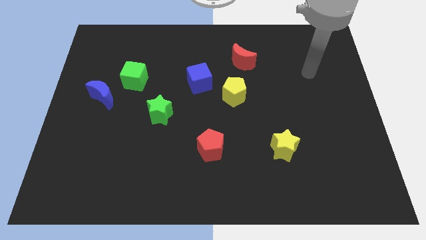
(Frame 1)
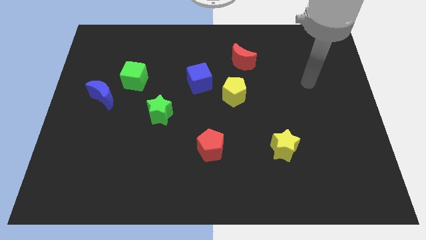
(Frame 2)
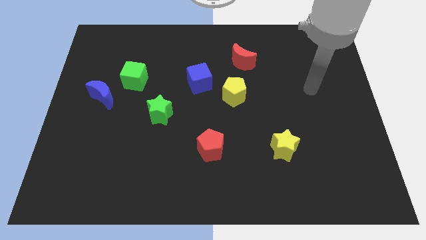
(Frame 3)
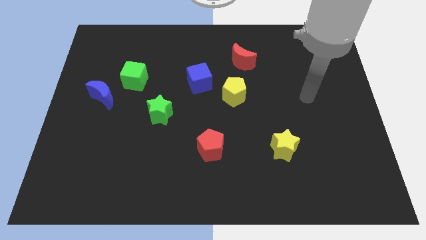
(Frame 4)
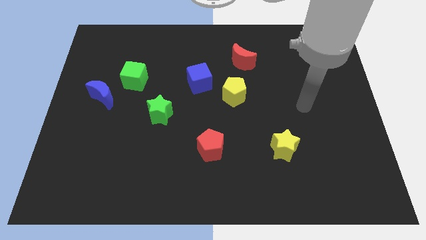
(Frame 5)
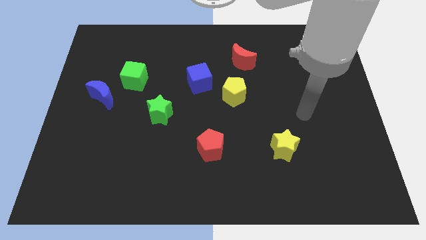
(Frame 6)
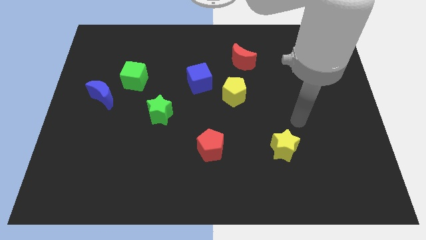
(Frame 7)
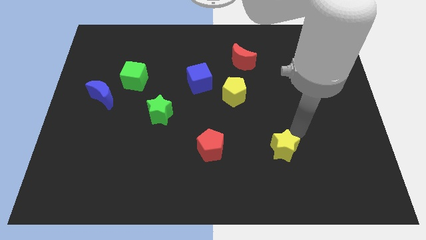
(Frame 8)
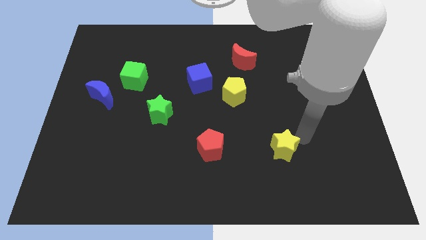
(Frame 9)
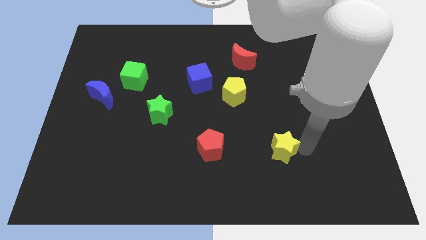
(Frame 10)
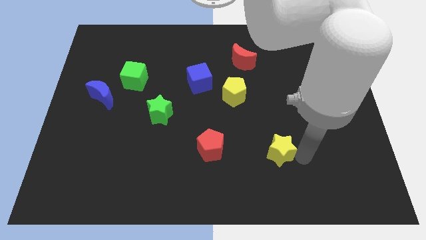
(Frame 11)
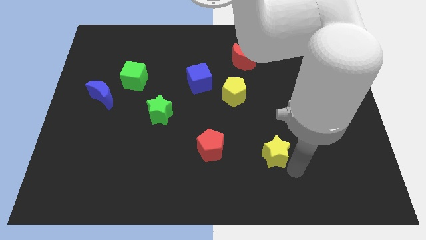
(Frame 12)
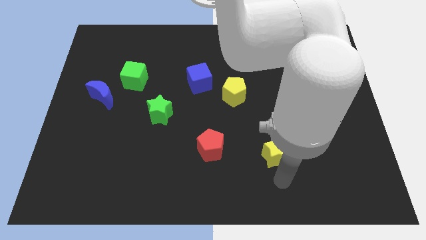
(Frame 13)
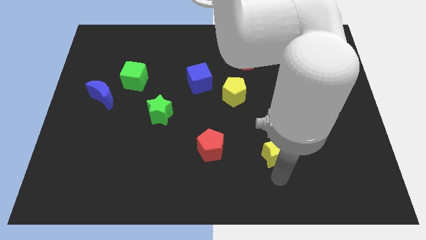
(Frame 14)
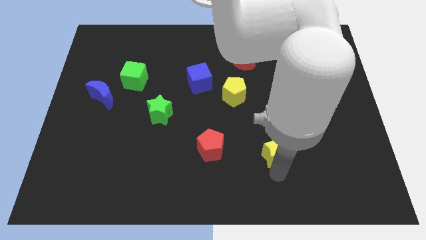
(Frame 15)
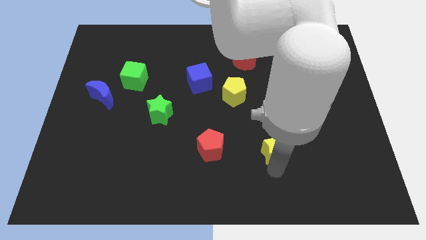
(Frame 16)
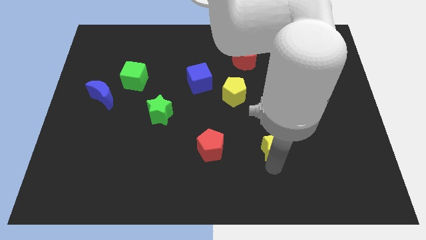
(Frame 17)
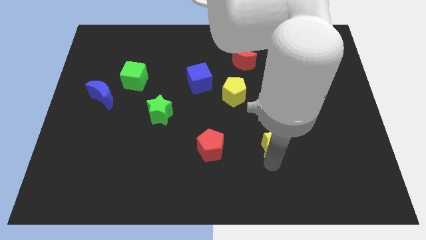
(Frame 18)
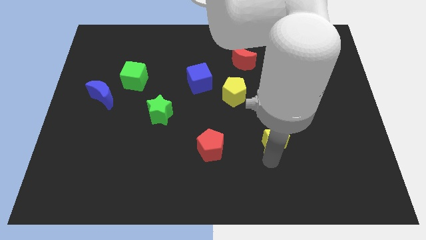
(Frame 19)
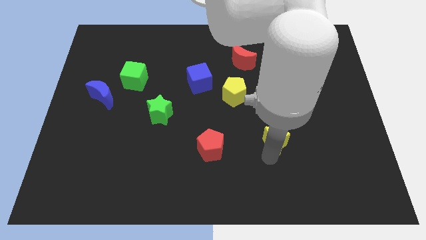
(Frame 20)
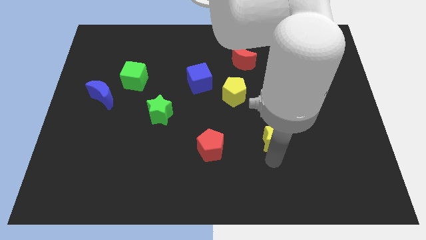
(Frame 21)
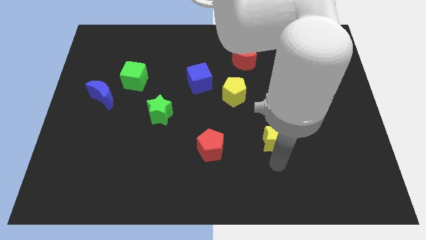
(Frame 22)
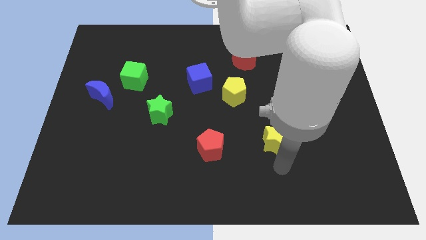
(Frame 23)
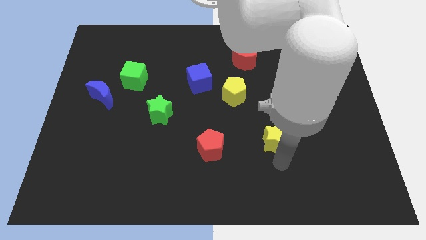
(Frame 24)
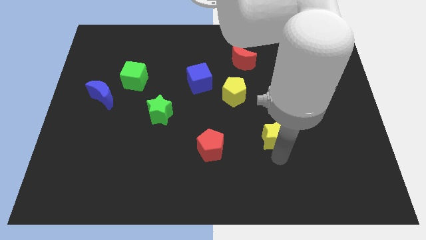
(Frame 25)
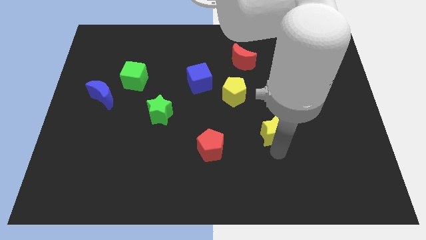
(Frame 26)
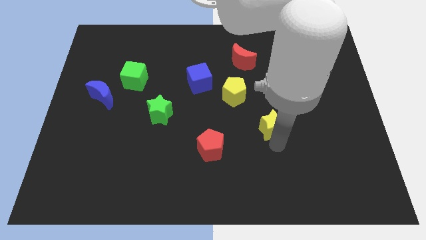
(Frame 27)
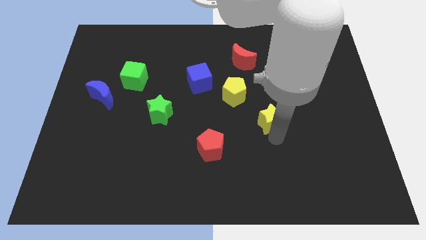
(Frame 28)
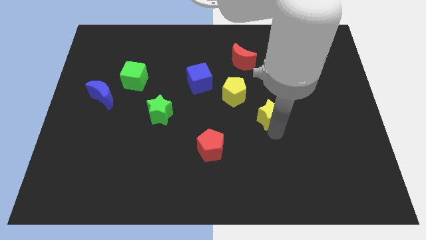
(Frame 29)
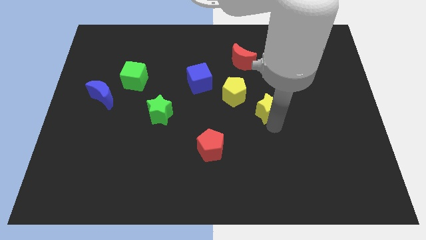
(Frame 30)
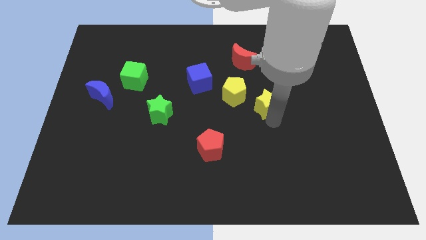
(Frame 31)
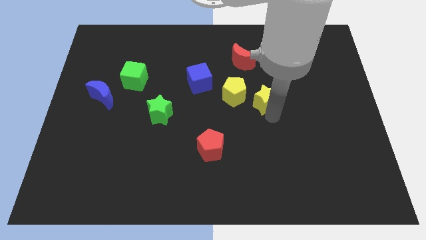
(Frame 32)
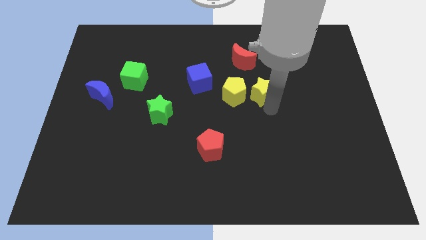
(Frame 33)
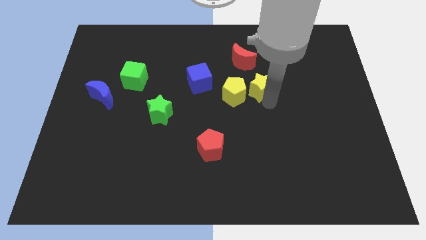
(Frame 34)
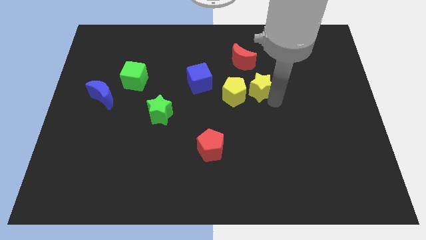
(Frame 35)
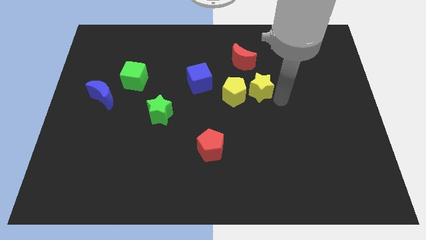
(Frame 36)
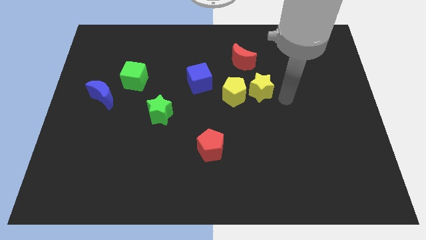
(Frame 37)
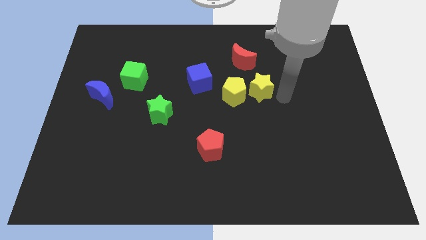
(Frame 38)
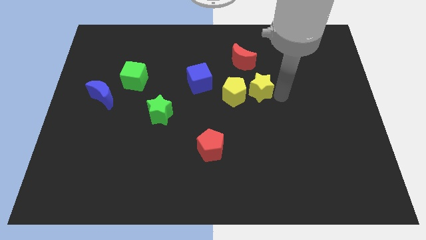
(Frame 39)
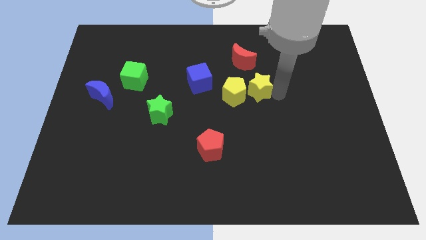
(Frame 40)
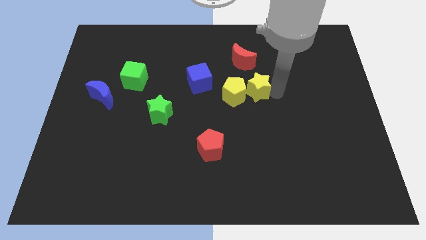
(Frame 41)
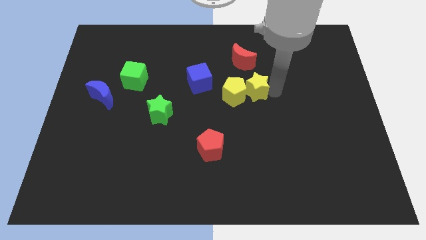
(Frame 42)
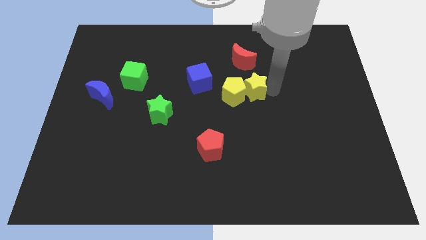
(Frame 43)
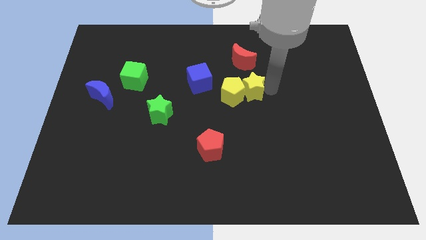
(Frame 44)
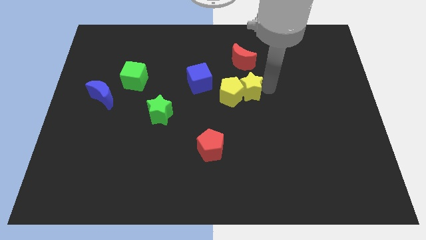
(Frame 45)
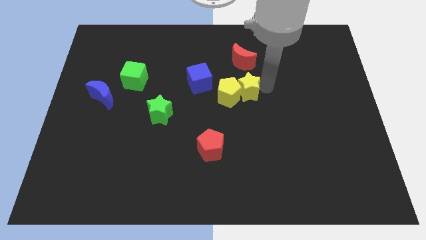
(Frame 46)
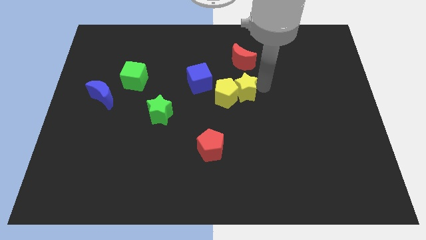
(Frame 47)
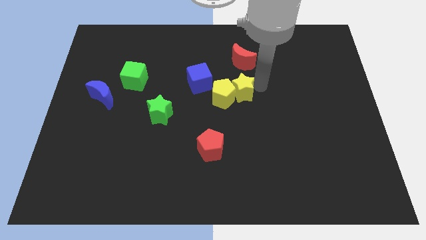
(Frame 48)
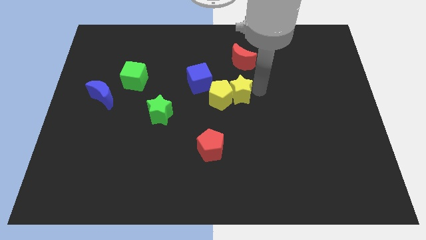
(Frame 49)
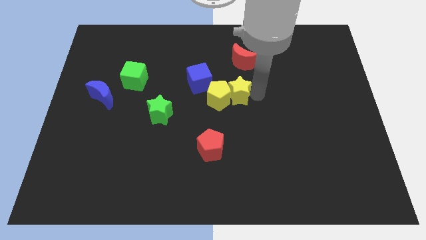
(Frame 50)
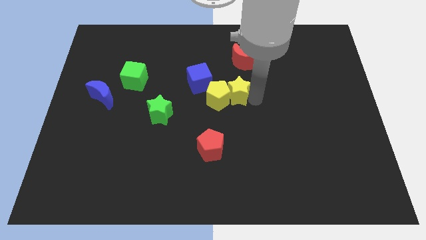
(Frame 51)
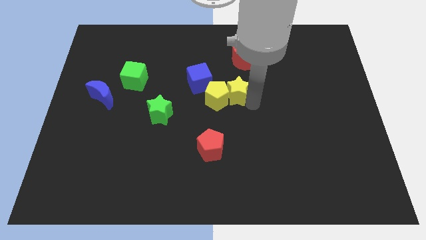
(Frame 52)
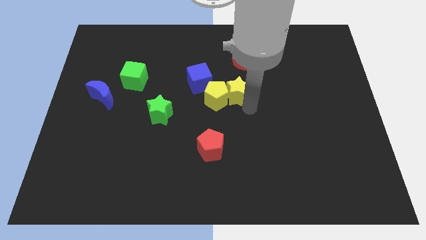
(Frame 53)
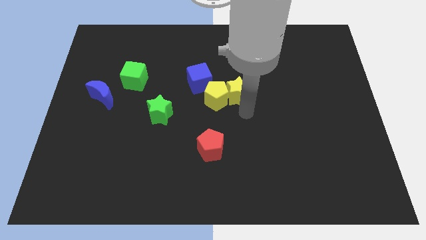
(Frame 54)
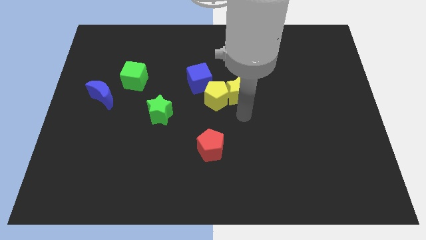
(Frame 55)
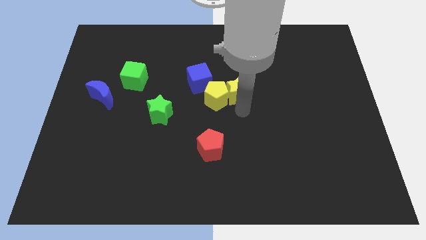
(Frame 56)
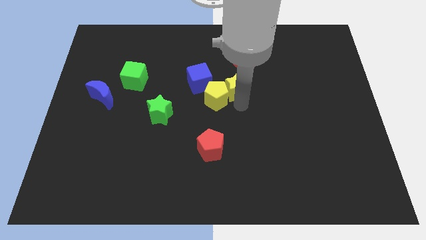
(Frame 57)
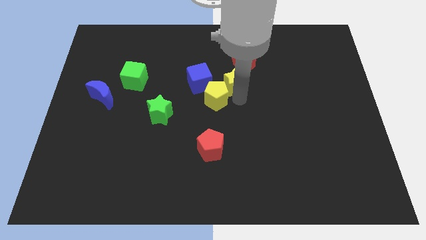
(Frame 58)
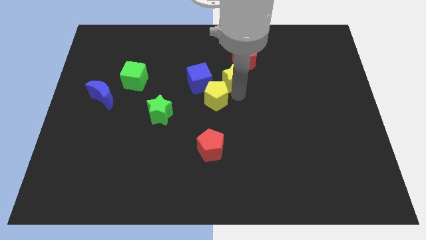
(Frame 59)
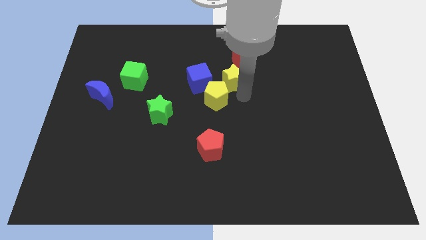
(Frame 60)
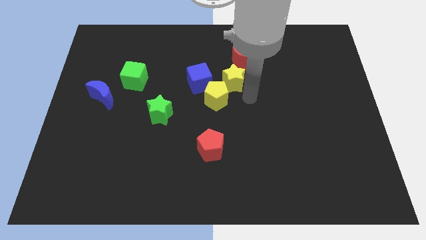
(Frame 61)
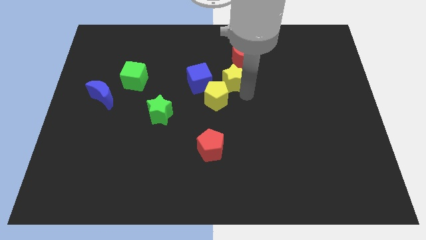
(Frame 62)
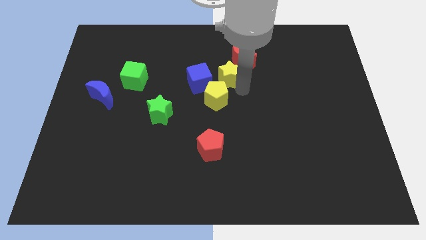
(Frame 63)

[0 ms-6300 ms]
push the yellow star to the top right of the blue cube

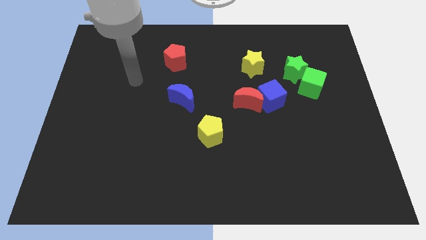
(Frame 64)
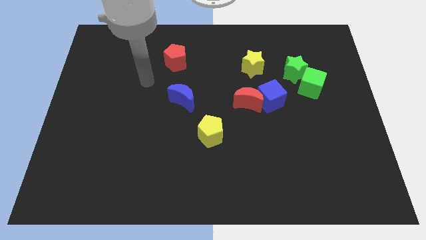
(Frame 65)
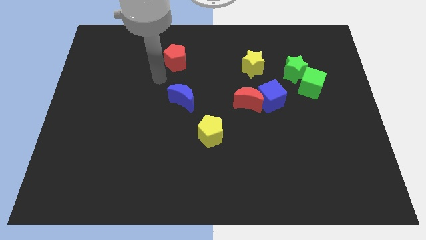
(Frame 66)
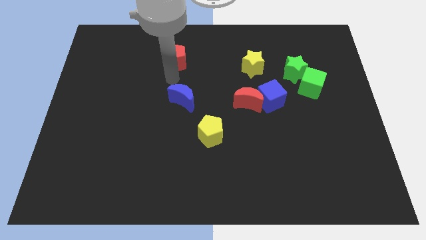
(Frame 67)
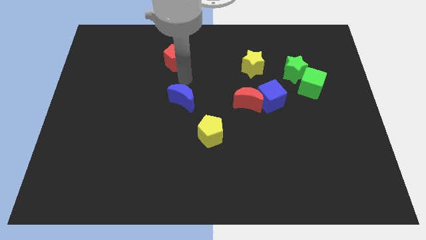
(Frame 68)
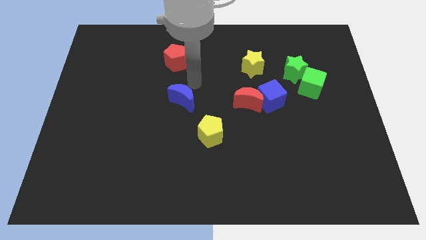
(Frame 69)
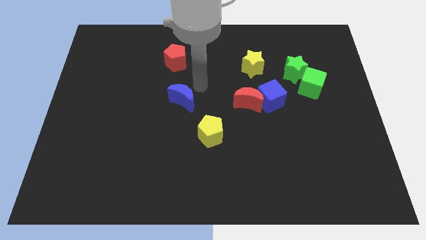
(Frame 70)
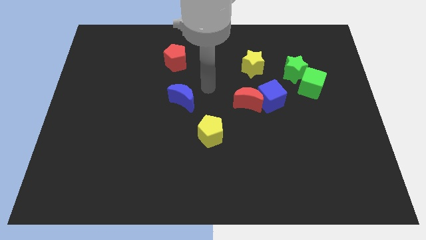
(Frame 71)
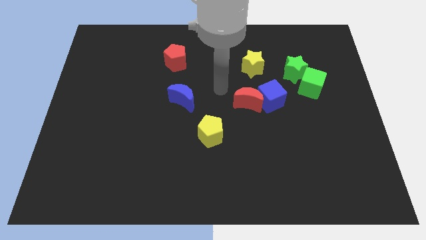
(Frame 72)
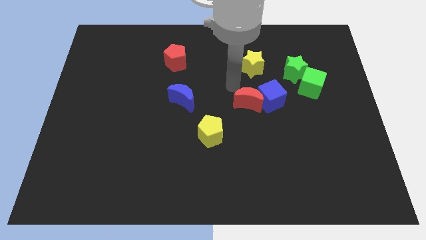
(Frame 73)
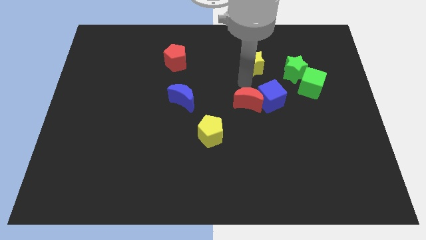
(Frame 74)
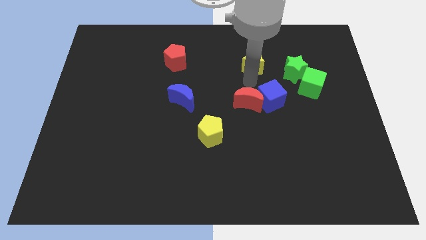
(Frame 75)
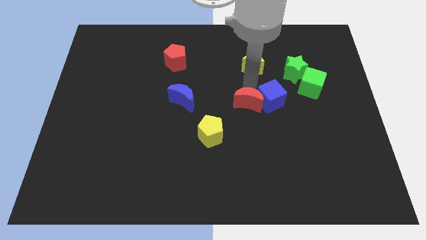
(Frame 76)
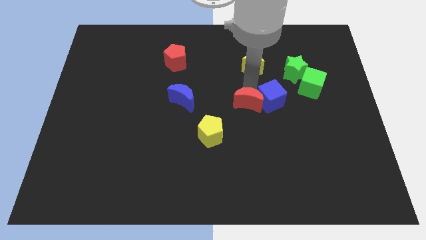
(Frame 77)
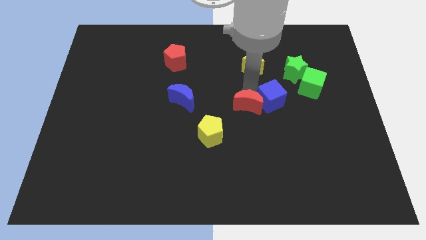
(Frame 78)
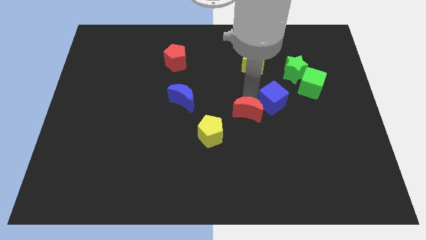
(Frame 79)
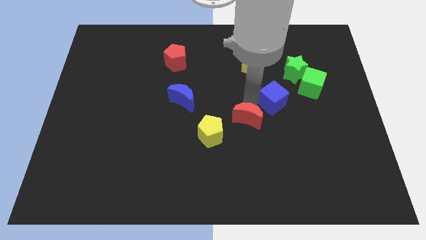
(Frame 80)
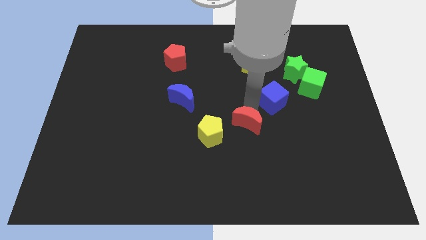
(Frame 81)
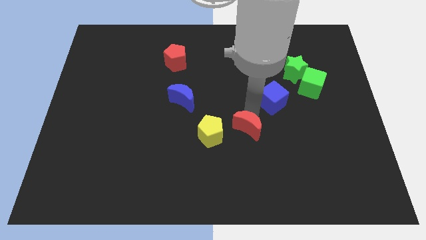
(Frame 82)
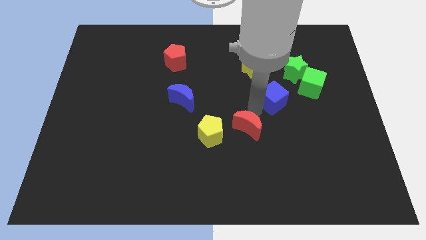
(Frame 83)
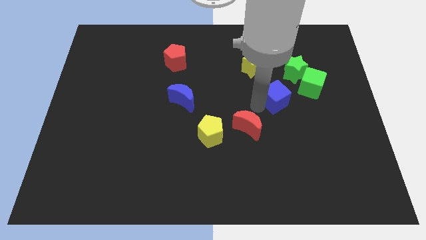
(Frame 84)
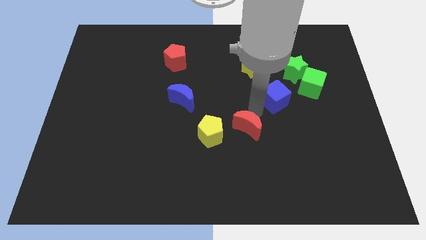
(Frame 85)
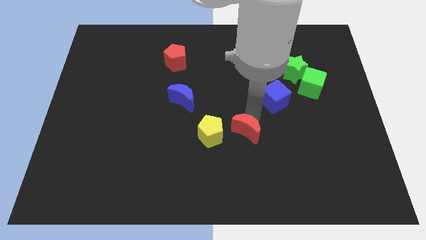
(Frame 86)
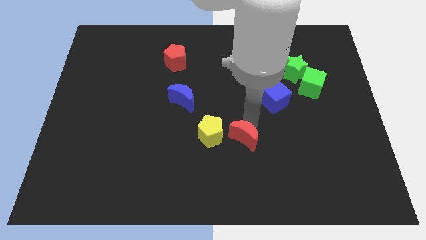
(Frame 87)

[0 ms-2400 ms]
move the red moon to the bottom right side of the yellow pentagon

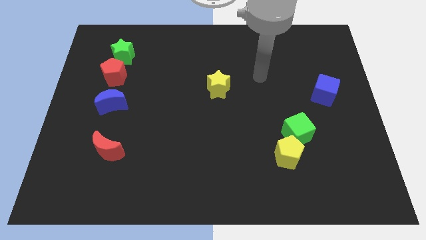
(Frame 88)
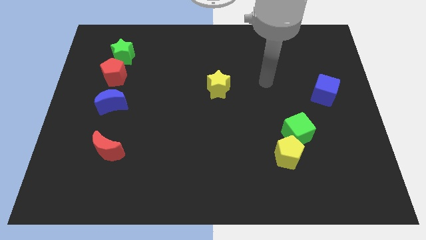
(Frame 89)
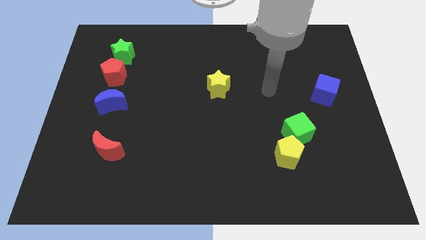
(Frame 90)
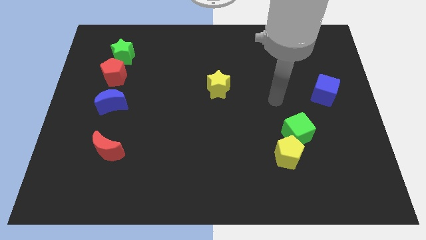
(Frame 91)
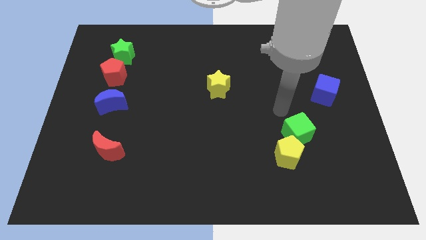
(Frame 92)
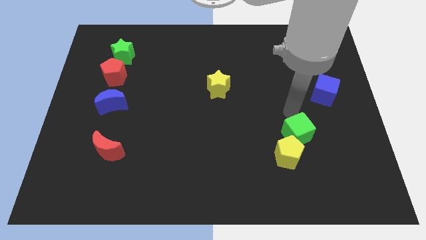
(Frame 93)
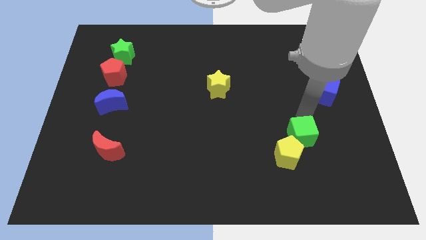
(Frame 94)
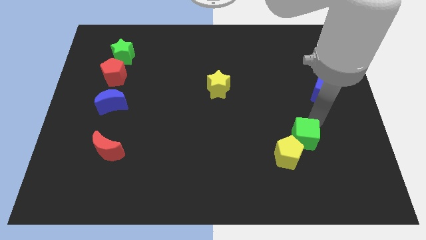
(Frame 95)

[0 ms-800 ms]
slide the yellow pentagon left of the green cube
